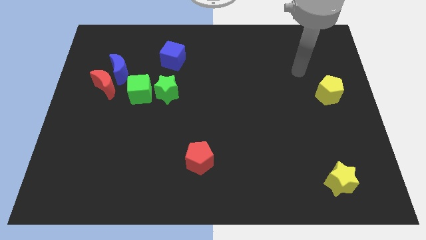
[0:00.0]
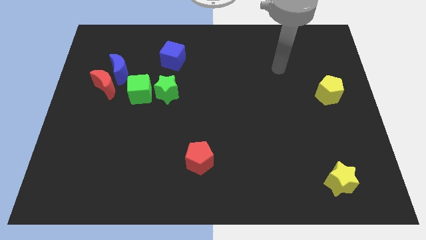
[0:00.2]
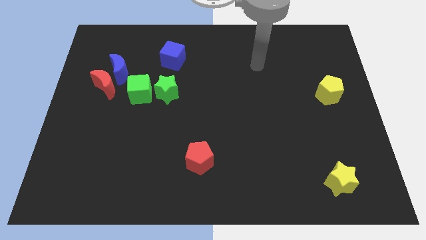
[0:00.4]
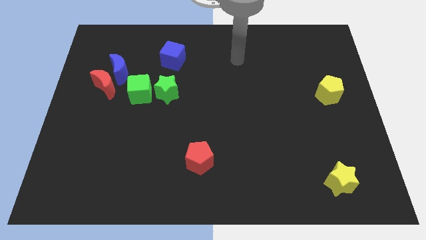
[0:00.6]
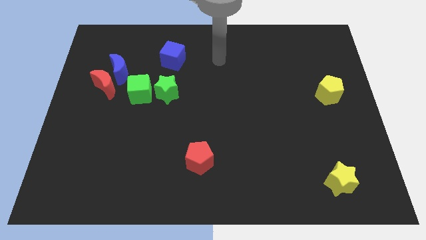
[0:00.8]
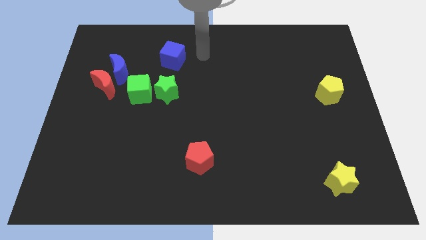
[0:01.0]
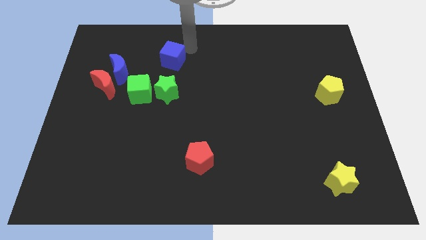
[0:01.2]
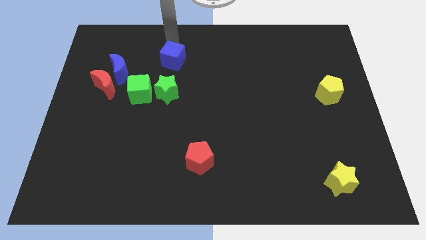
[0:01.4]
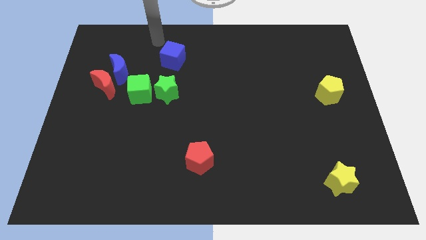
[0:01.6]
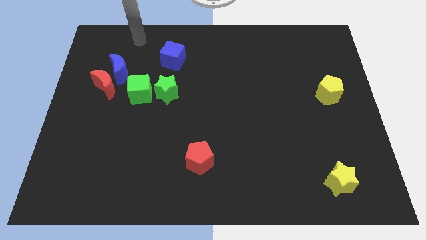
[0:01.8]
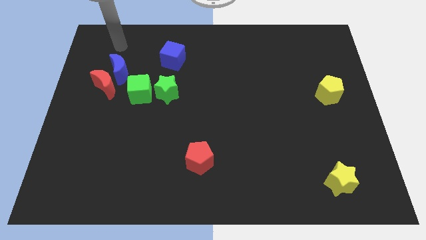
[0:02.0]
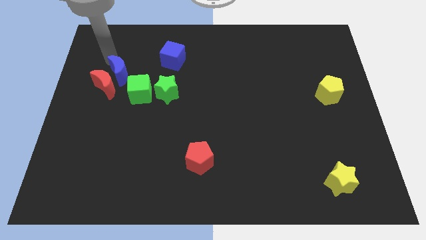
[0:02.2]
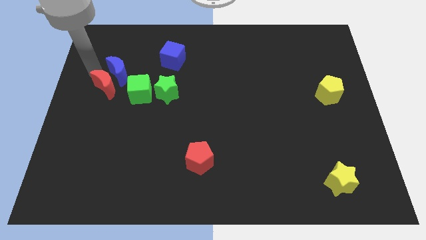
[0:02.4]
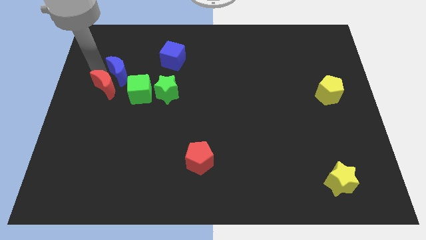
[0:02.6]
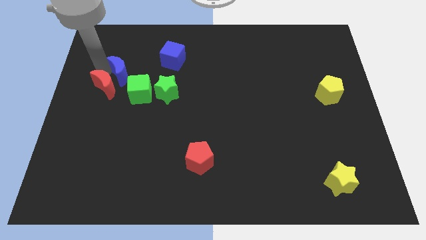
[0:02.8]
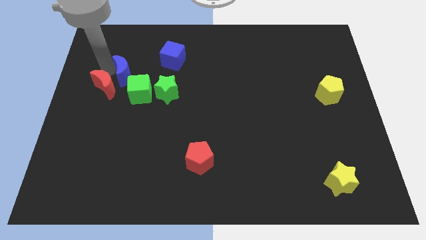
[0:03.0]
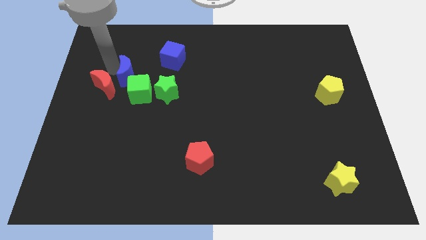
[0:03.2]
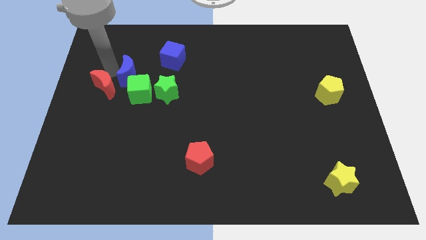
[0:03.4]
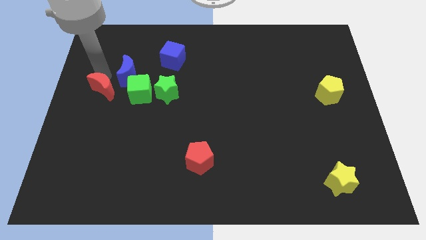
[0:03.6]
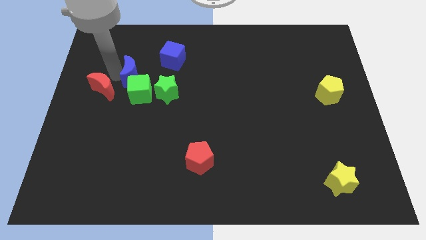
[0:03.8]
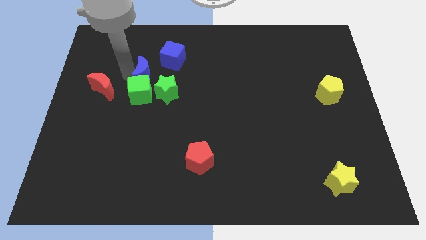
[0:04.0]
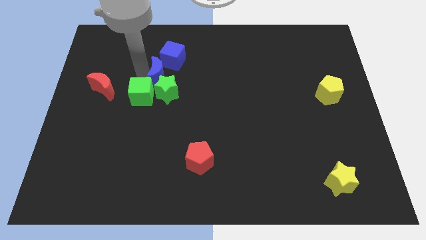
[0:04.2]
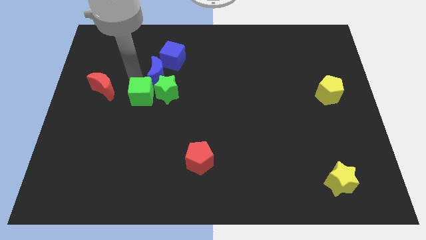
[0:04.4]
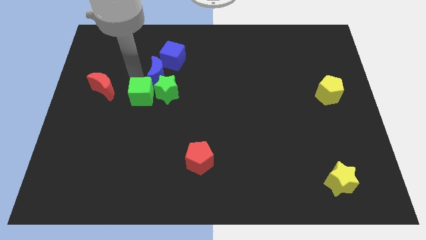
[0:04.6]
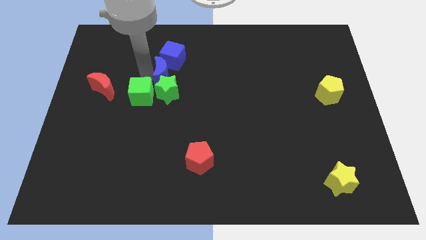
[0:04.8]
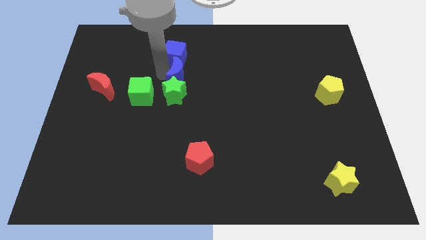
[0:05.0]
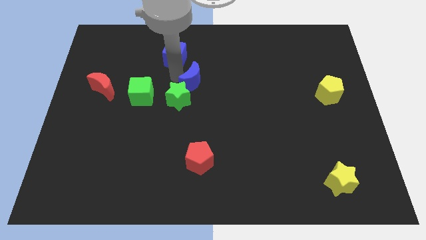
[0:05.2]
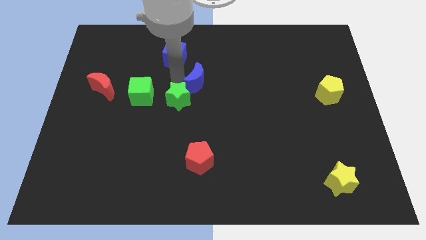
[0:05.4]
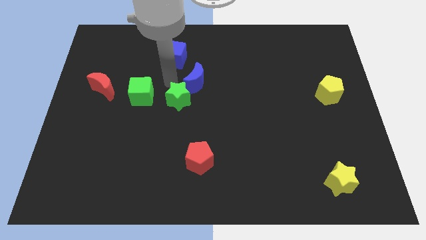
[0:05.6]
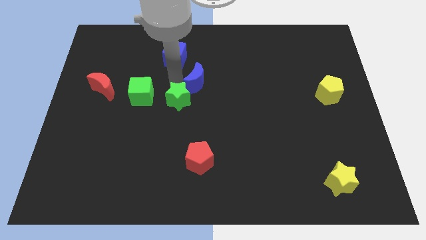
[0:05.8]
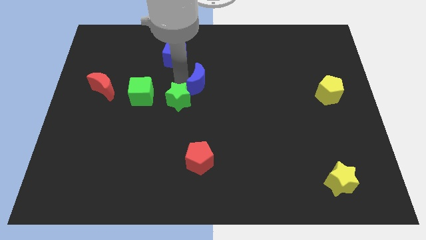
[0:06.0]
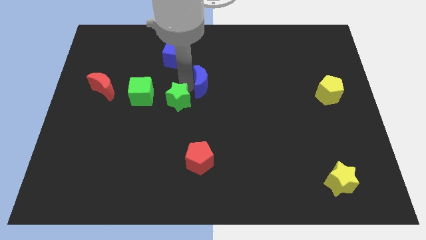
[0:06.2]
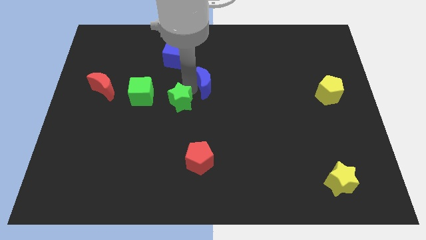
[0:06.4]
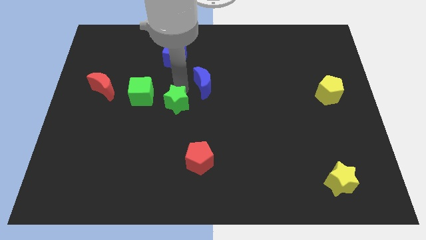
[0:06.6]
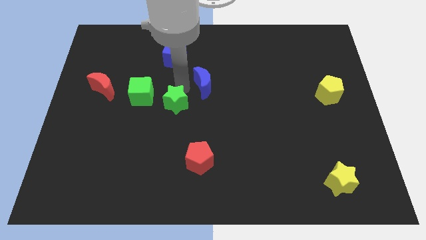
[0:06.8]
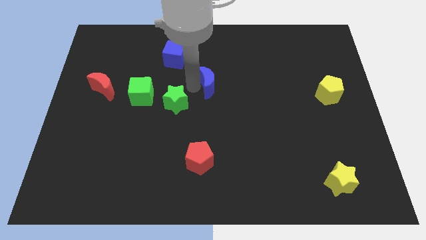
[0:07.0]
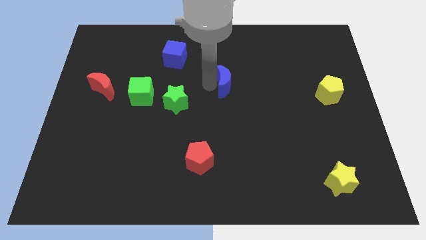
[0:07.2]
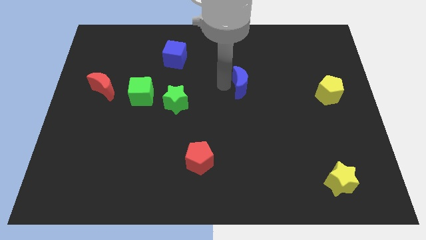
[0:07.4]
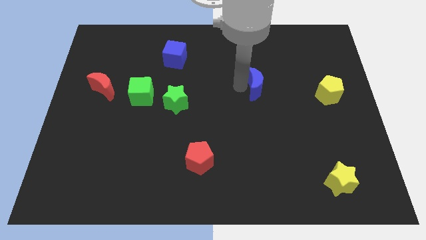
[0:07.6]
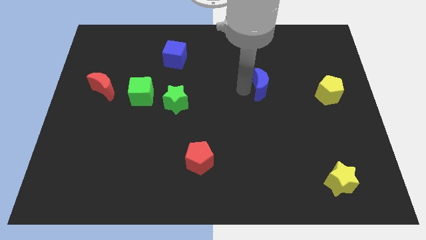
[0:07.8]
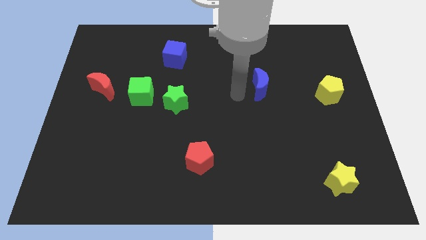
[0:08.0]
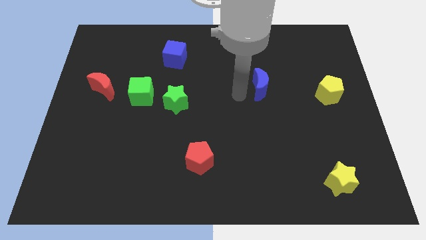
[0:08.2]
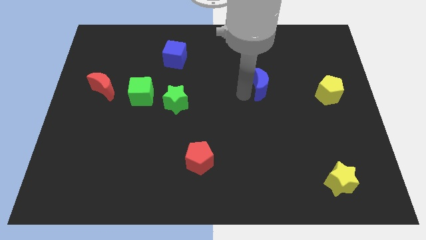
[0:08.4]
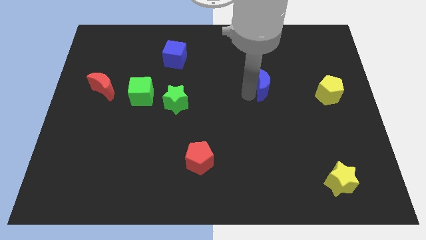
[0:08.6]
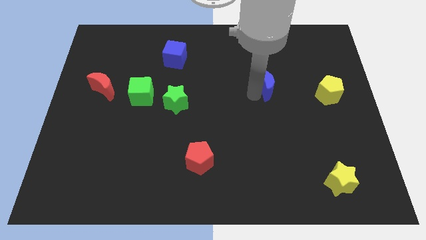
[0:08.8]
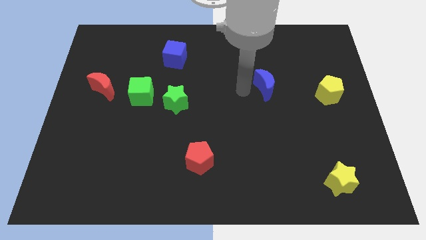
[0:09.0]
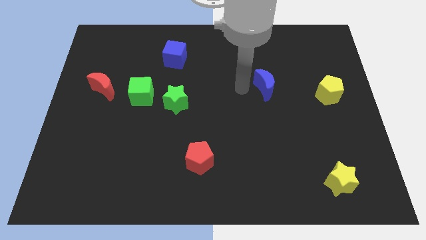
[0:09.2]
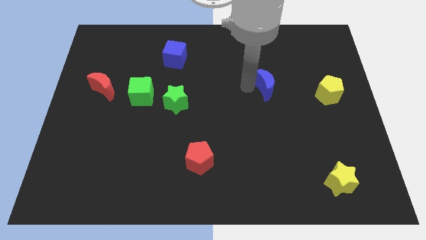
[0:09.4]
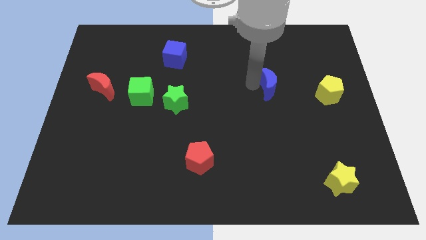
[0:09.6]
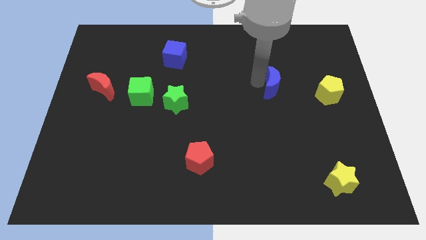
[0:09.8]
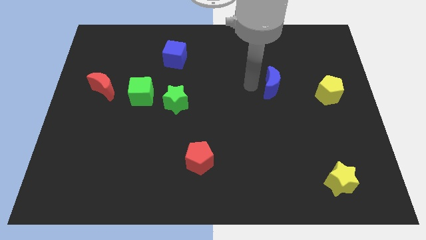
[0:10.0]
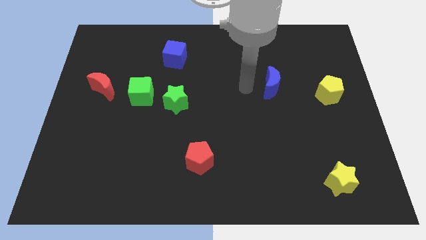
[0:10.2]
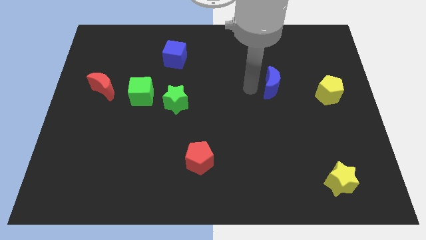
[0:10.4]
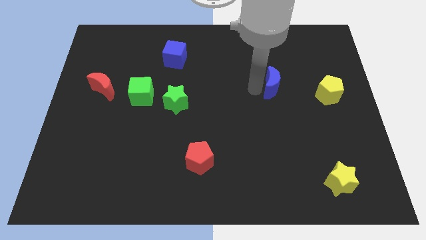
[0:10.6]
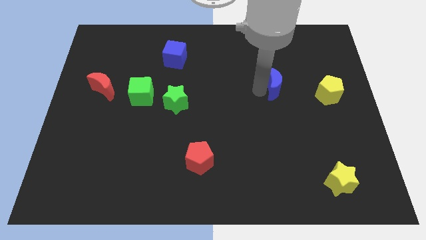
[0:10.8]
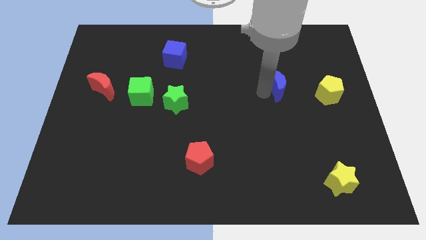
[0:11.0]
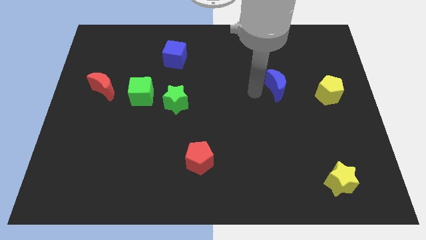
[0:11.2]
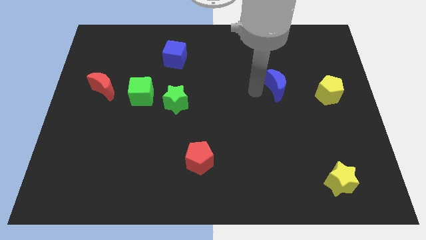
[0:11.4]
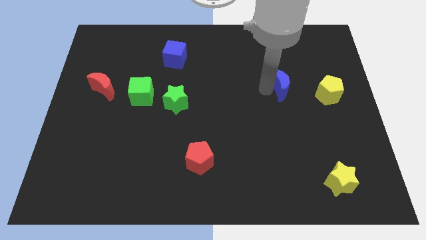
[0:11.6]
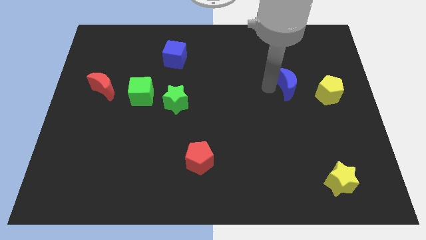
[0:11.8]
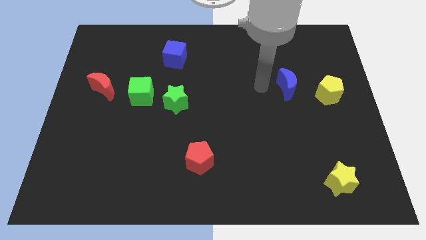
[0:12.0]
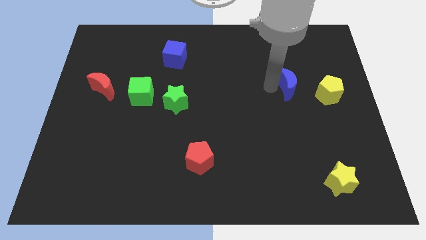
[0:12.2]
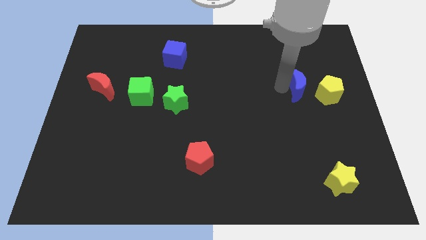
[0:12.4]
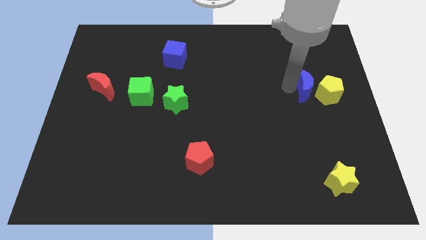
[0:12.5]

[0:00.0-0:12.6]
move the blue moon towards the yellow pentagon
